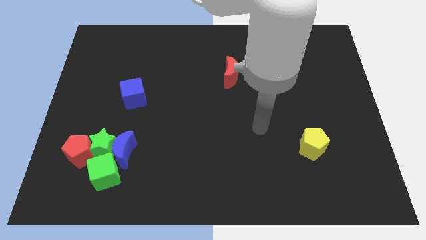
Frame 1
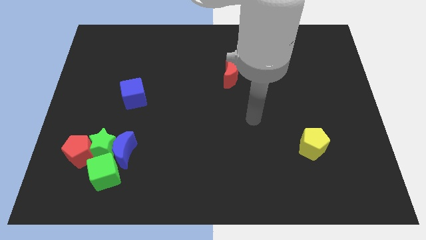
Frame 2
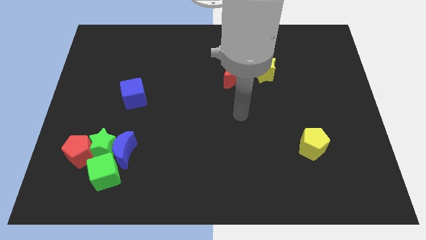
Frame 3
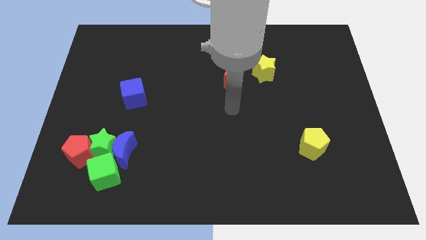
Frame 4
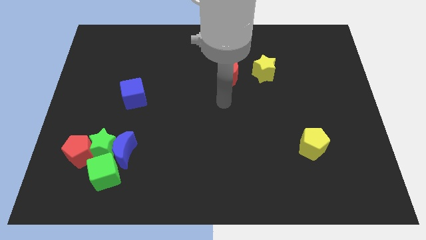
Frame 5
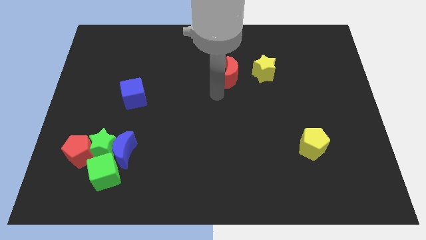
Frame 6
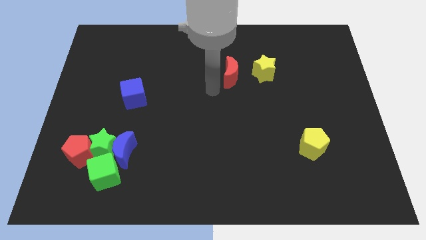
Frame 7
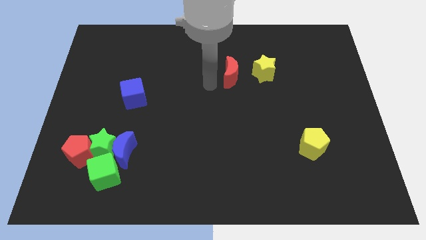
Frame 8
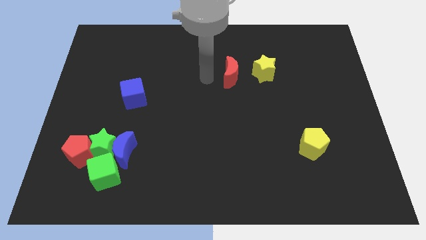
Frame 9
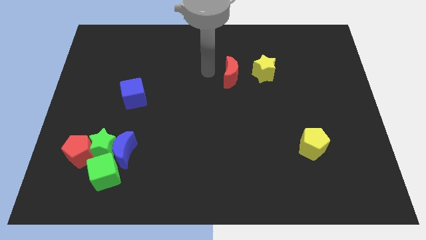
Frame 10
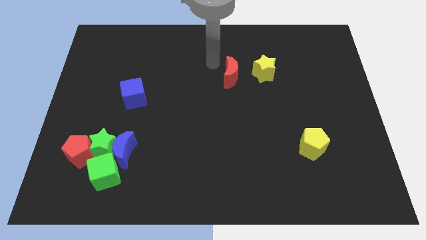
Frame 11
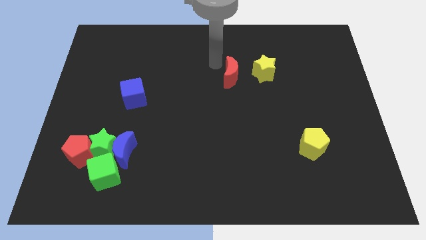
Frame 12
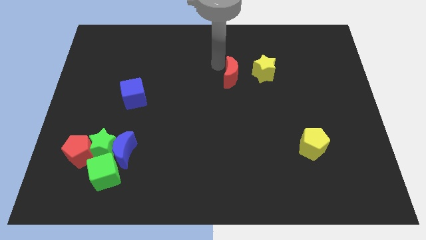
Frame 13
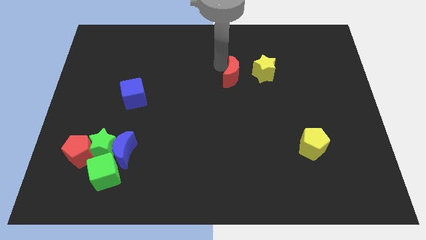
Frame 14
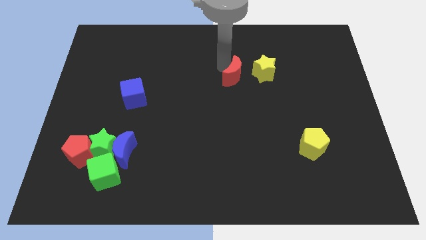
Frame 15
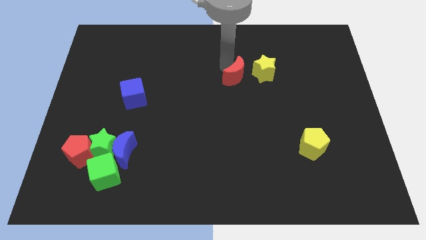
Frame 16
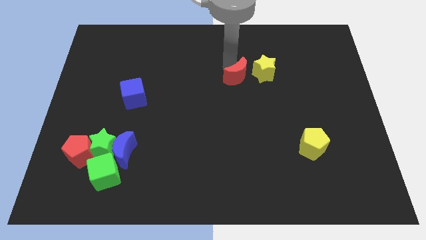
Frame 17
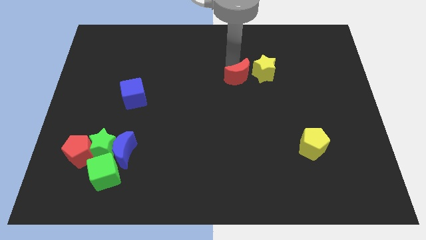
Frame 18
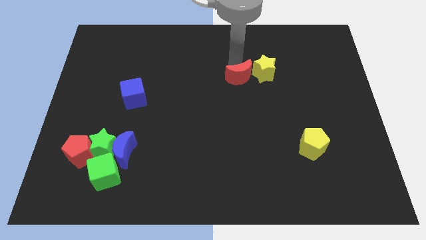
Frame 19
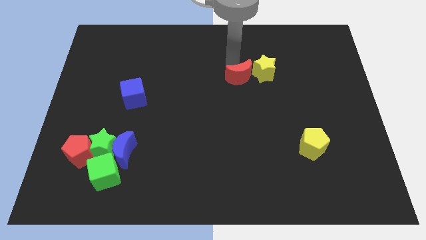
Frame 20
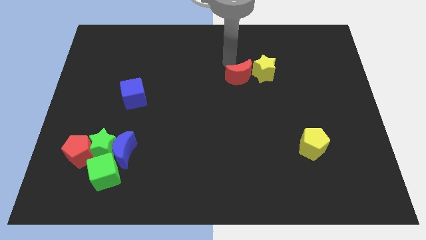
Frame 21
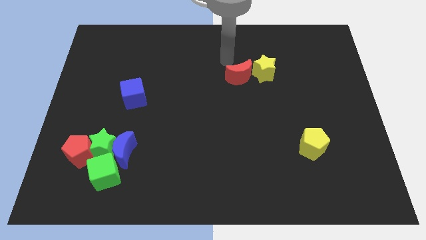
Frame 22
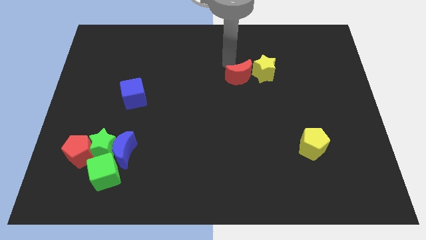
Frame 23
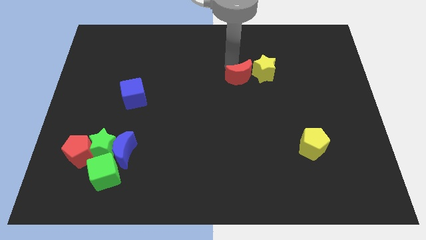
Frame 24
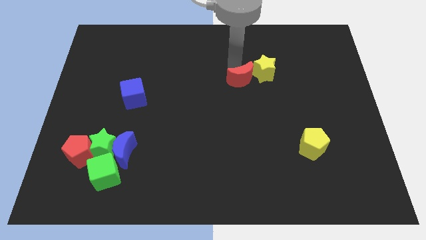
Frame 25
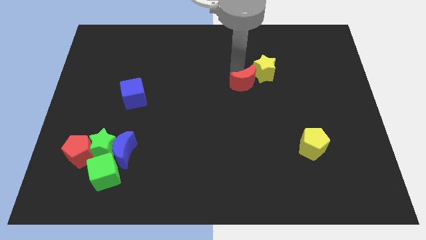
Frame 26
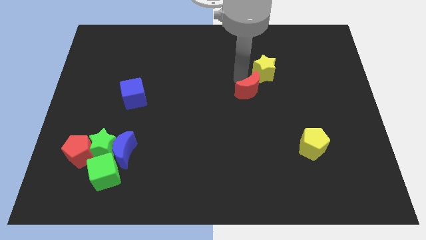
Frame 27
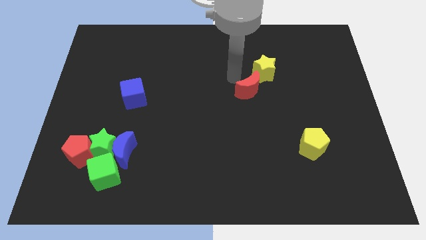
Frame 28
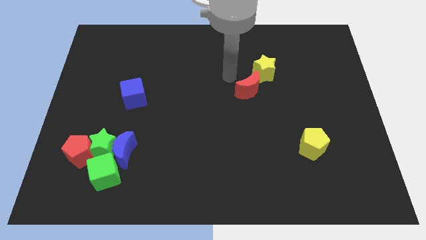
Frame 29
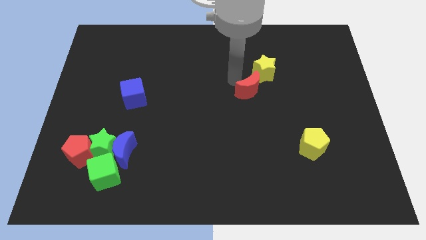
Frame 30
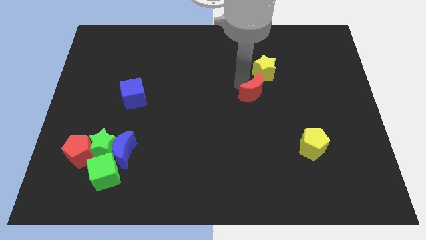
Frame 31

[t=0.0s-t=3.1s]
slightly move the red moon downwards and right diagonally

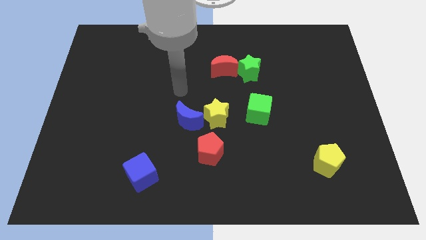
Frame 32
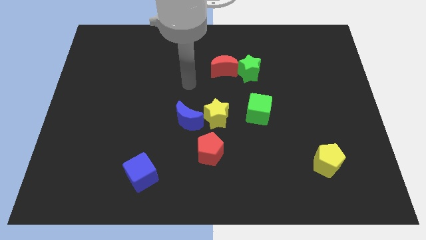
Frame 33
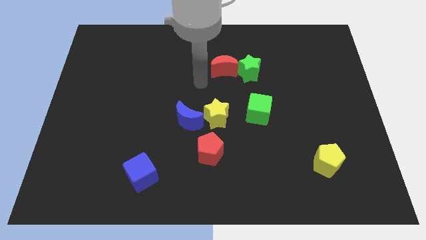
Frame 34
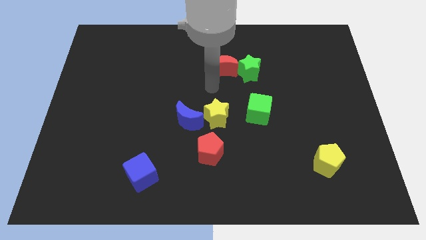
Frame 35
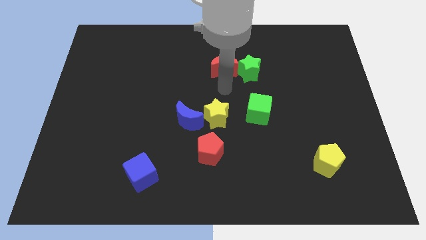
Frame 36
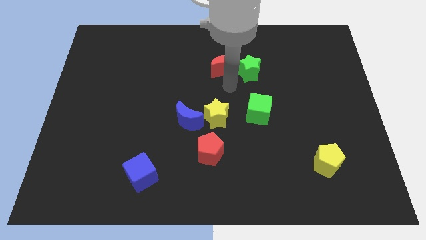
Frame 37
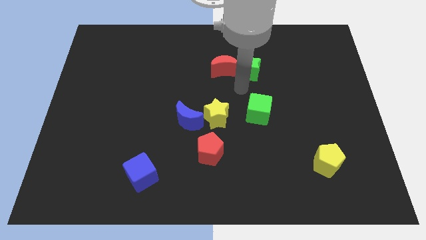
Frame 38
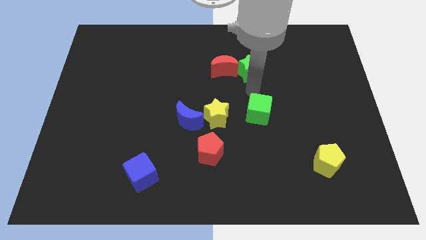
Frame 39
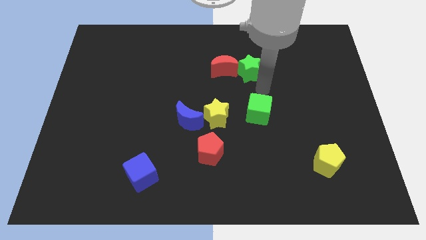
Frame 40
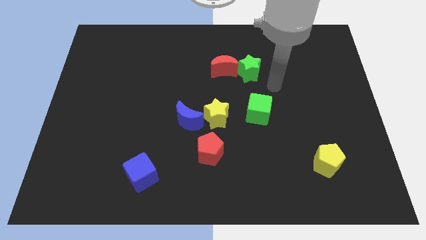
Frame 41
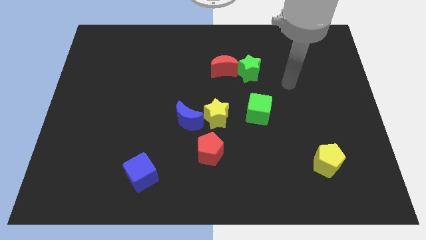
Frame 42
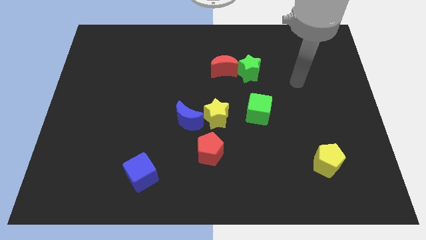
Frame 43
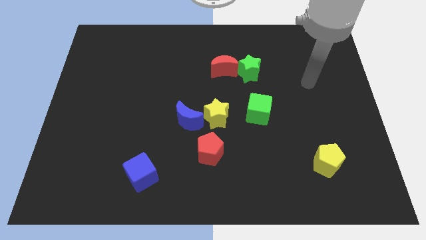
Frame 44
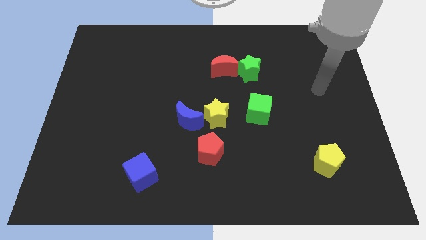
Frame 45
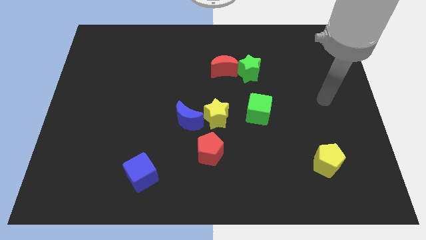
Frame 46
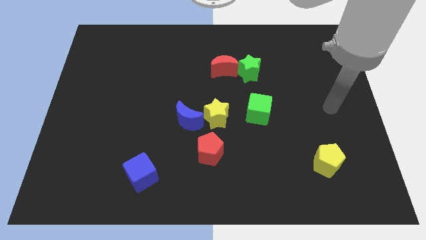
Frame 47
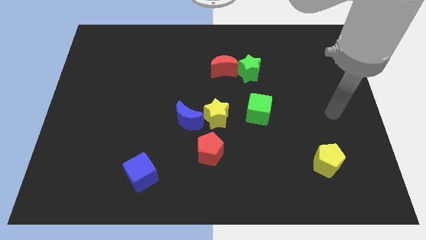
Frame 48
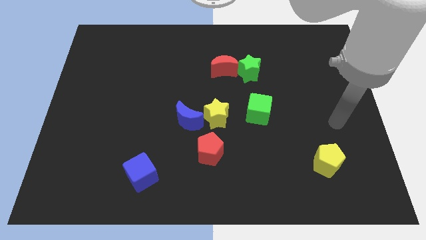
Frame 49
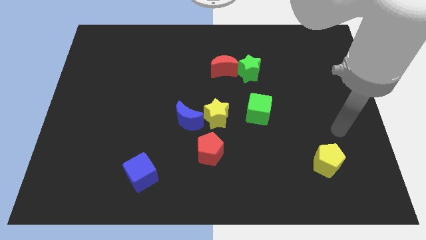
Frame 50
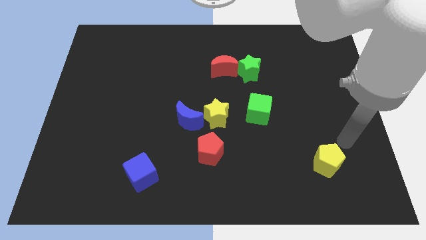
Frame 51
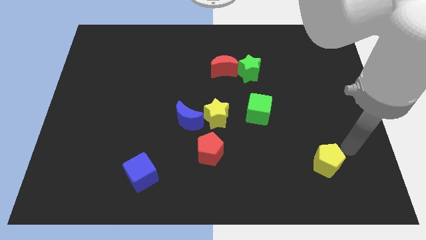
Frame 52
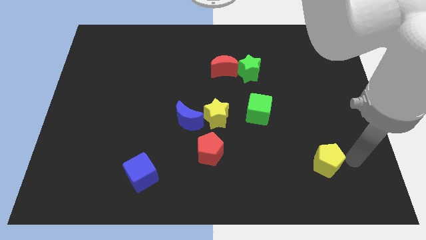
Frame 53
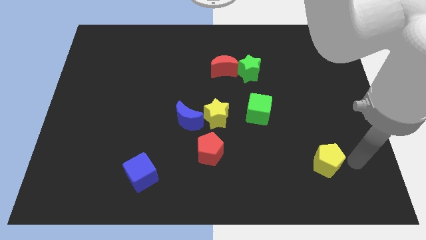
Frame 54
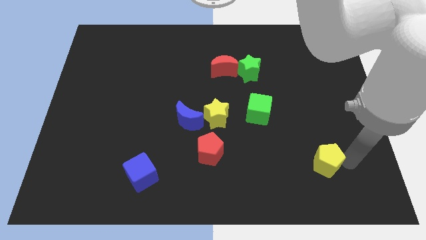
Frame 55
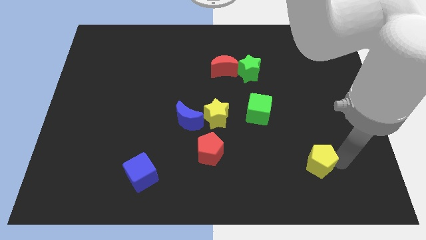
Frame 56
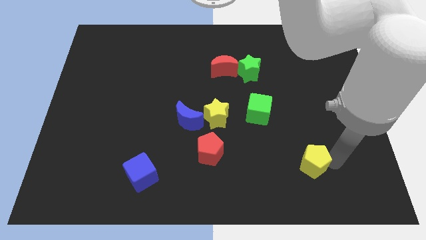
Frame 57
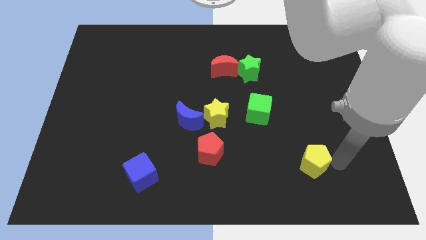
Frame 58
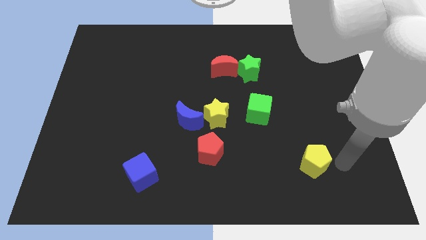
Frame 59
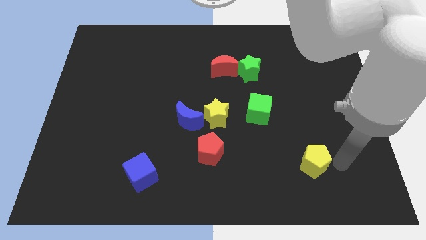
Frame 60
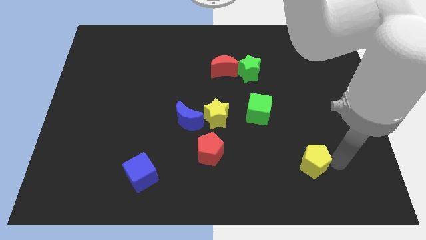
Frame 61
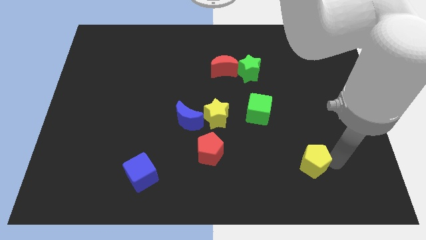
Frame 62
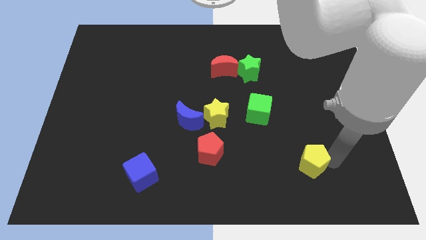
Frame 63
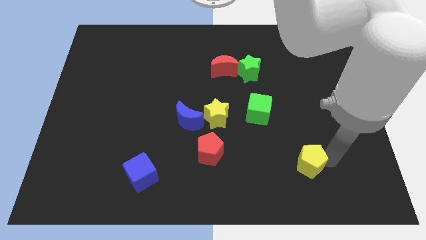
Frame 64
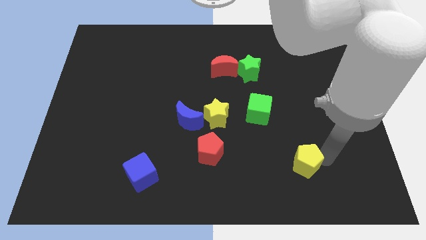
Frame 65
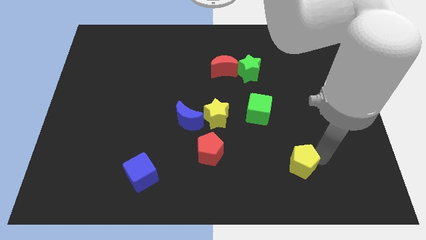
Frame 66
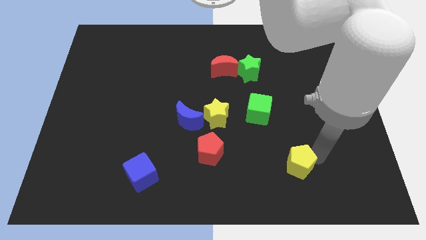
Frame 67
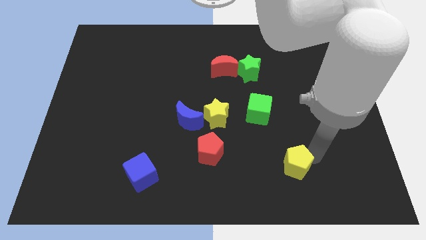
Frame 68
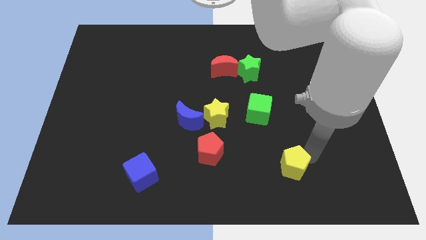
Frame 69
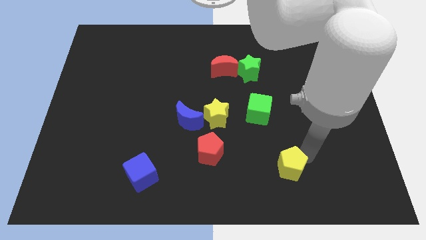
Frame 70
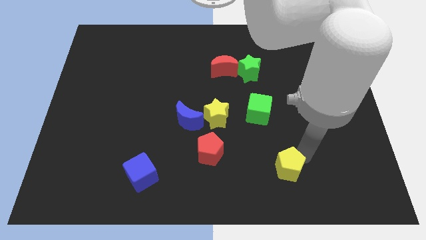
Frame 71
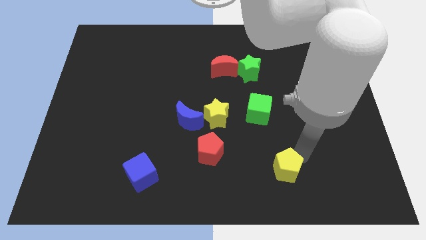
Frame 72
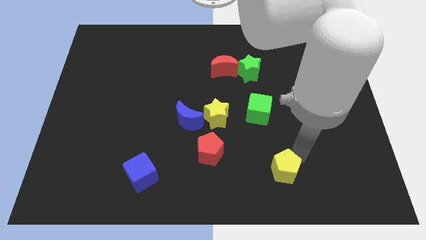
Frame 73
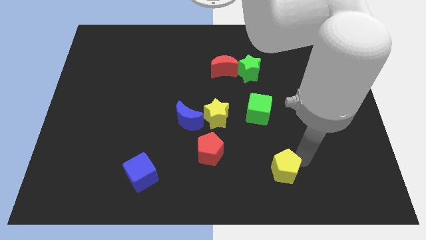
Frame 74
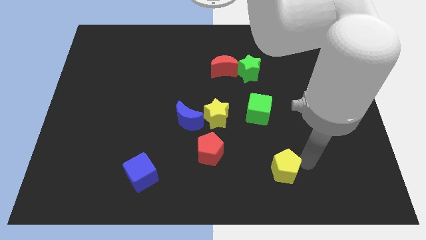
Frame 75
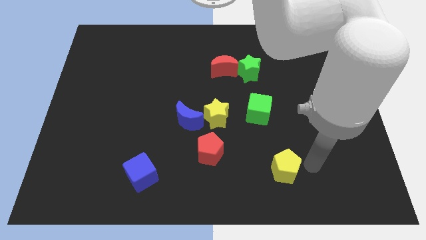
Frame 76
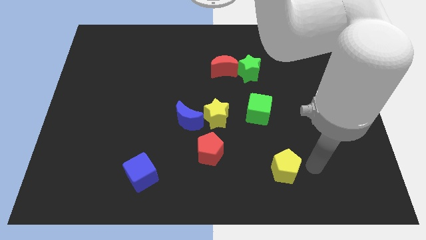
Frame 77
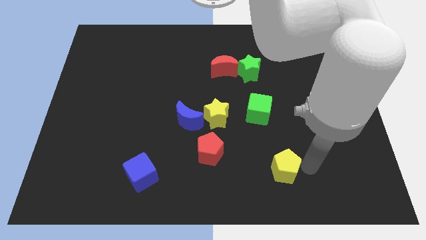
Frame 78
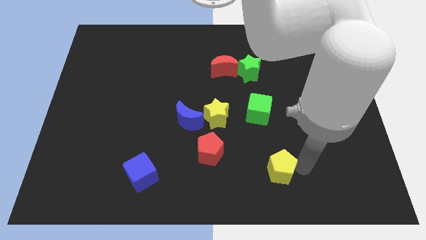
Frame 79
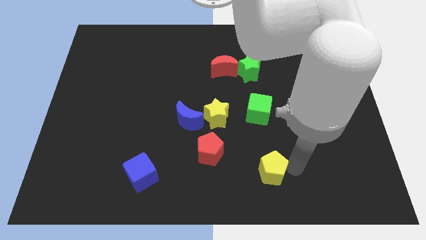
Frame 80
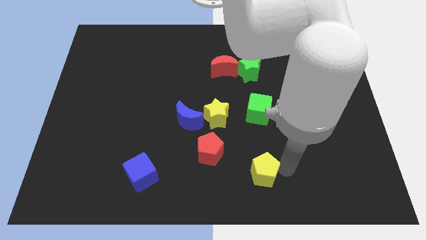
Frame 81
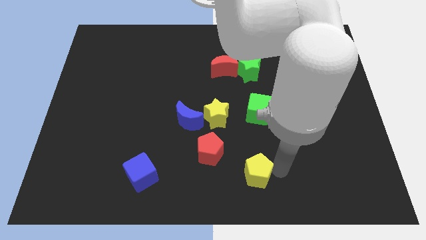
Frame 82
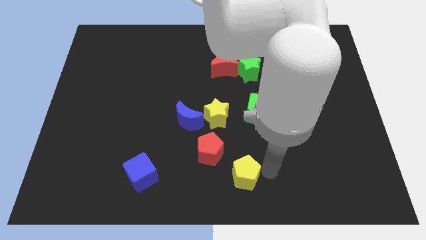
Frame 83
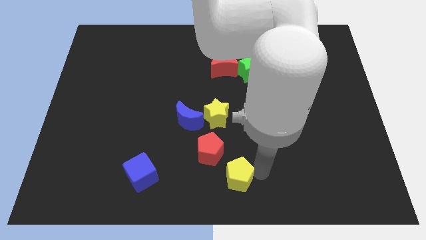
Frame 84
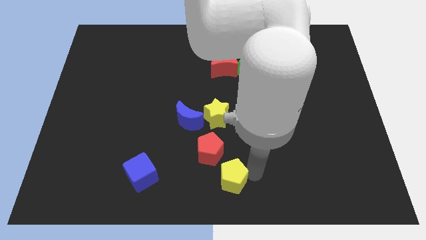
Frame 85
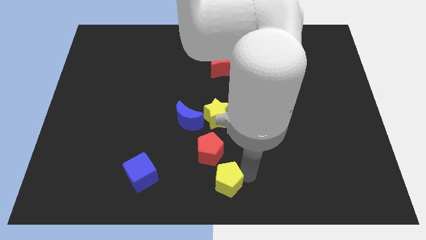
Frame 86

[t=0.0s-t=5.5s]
push the yellow pentagon left
